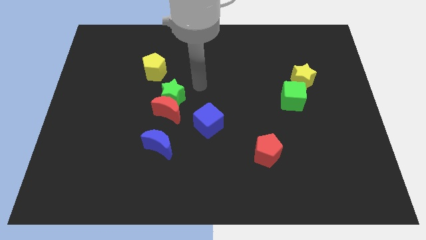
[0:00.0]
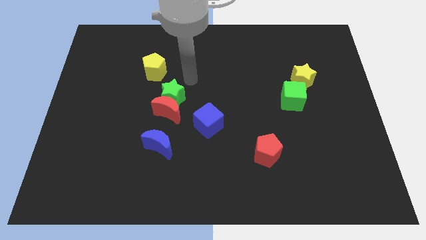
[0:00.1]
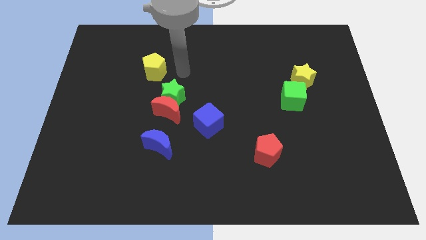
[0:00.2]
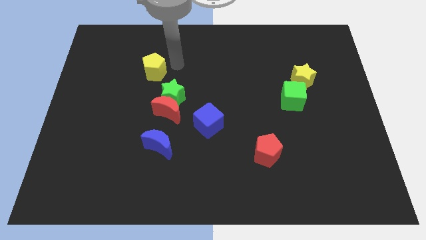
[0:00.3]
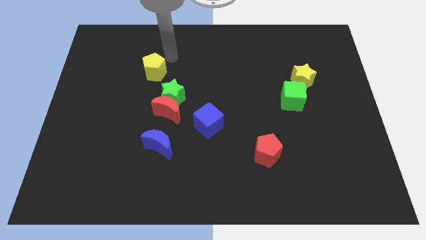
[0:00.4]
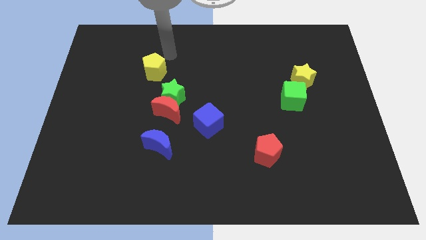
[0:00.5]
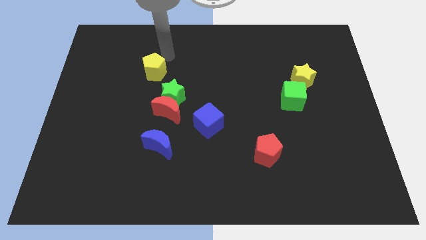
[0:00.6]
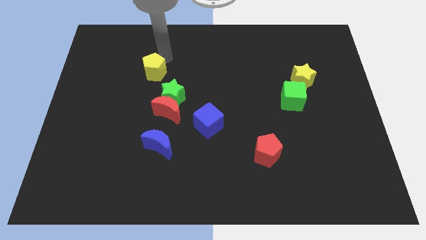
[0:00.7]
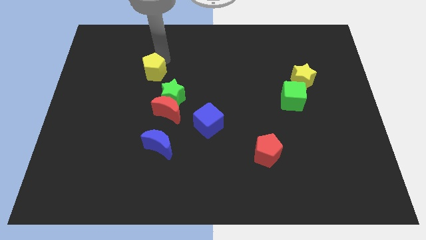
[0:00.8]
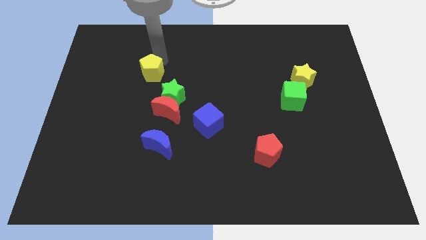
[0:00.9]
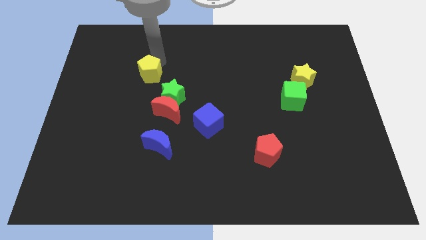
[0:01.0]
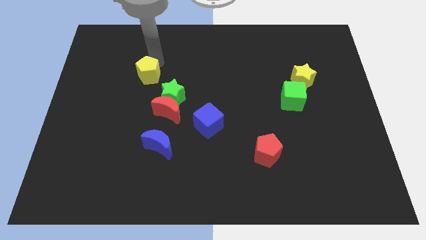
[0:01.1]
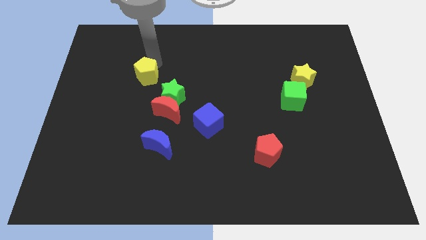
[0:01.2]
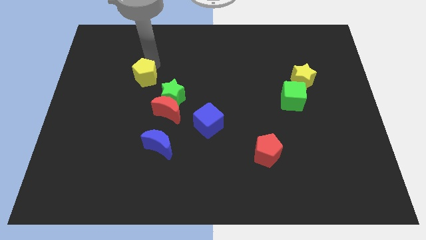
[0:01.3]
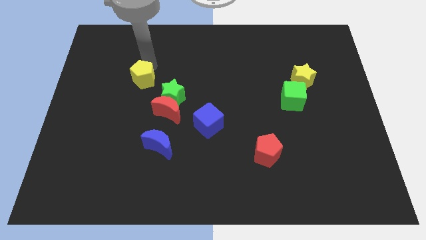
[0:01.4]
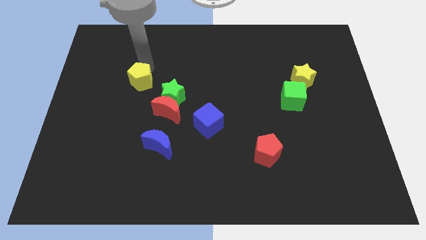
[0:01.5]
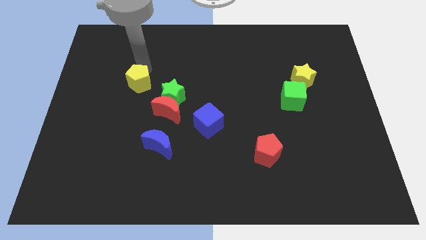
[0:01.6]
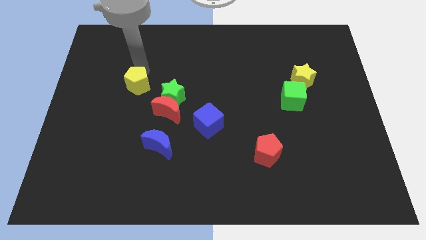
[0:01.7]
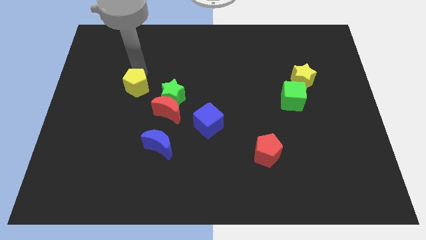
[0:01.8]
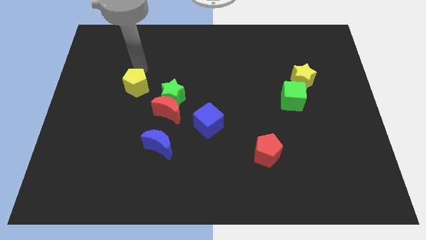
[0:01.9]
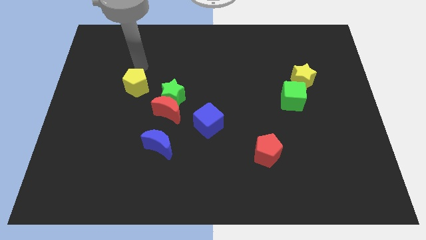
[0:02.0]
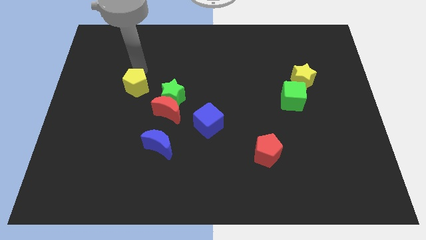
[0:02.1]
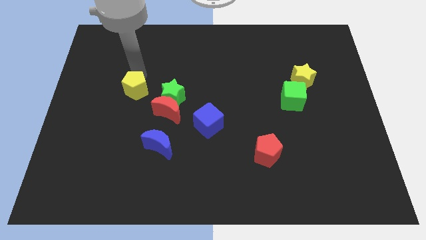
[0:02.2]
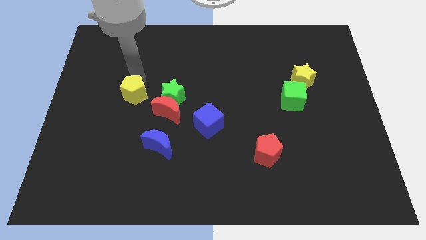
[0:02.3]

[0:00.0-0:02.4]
move the yellow pentagon somewhat down

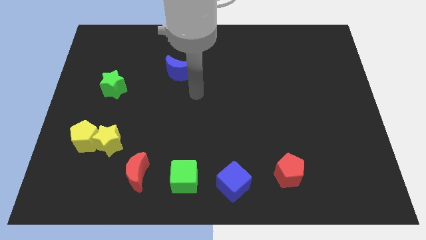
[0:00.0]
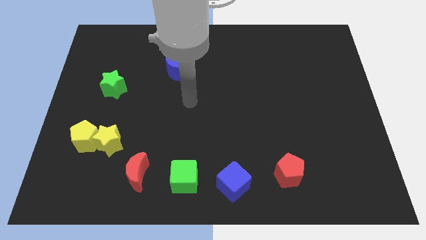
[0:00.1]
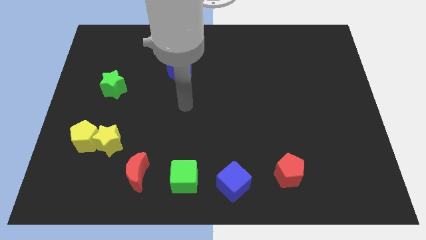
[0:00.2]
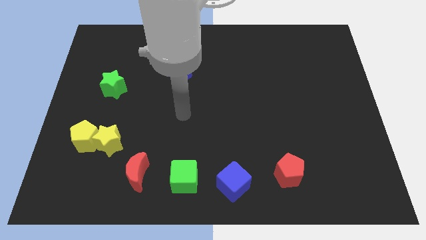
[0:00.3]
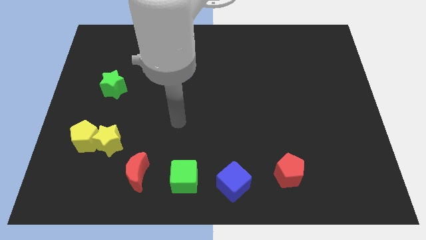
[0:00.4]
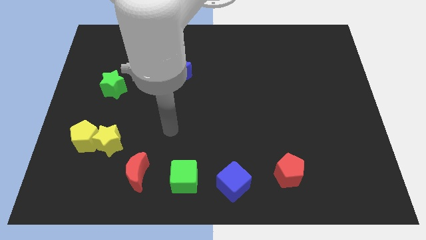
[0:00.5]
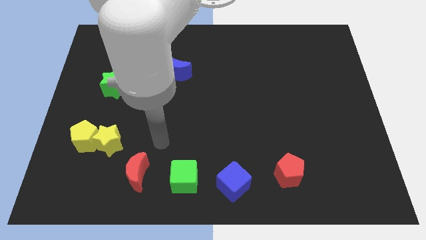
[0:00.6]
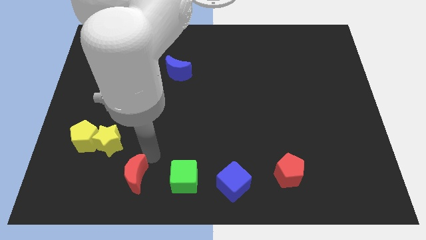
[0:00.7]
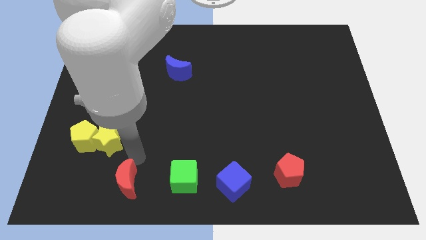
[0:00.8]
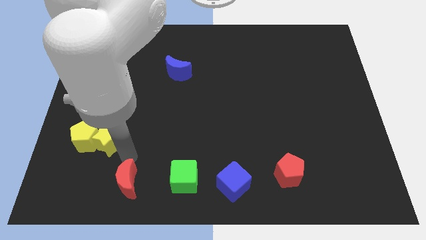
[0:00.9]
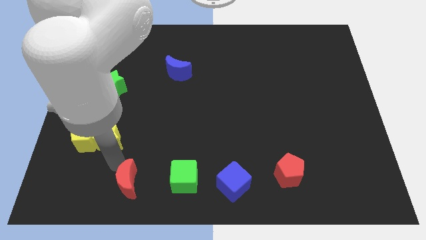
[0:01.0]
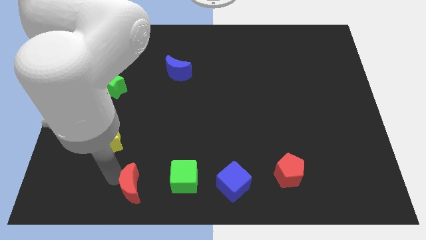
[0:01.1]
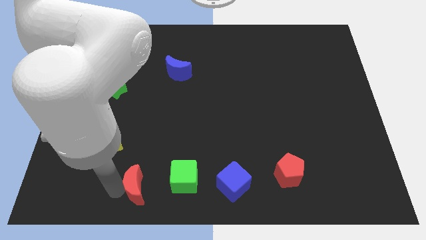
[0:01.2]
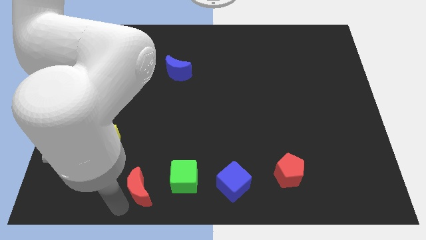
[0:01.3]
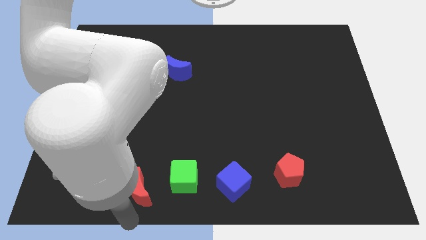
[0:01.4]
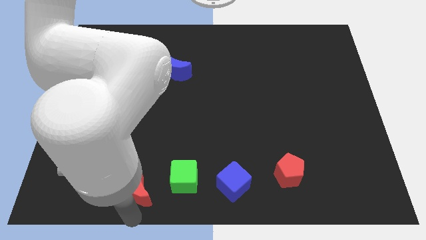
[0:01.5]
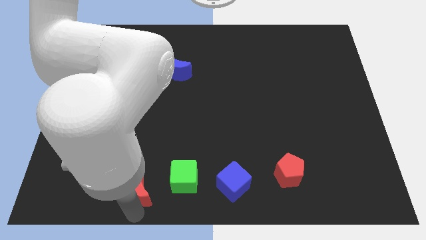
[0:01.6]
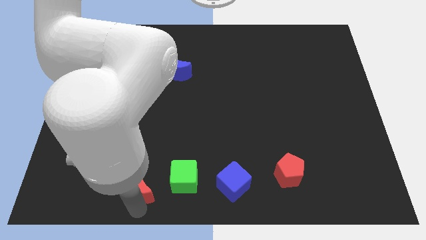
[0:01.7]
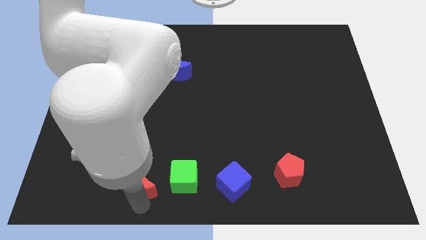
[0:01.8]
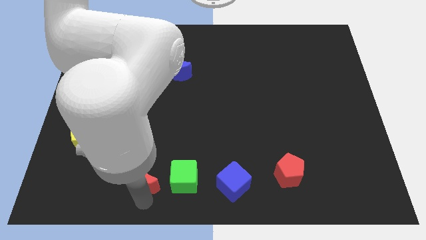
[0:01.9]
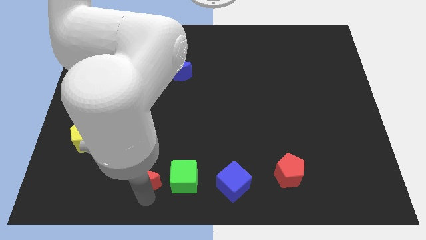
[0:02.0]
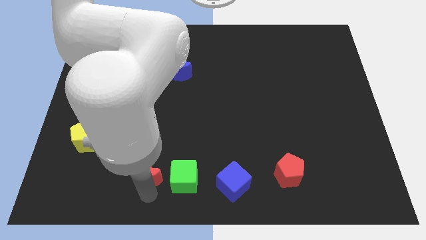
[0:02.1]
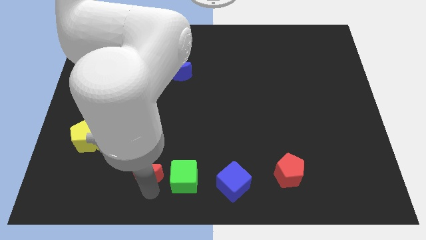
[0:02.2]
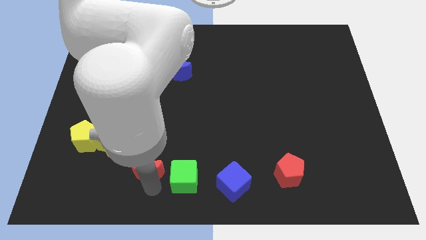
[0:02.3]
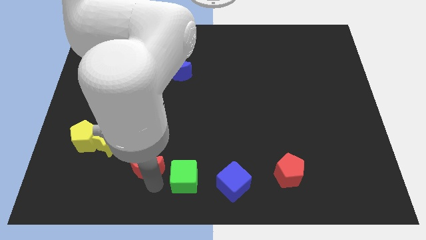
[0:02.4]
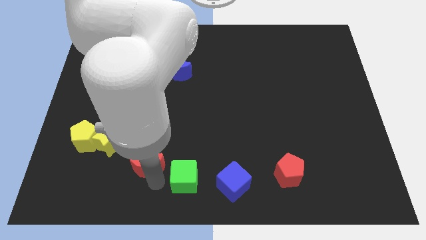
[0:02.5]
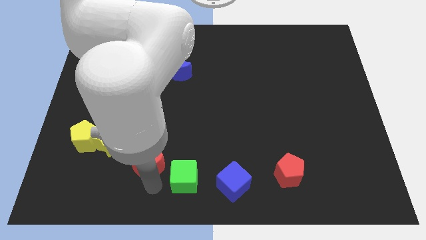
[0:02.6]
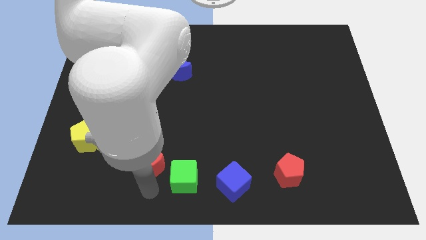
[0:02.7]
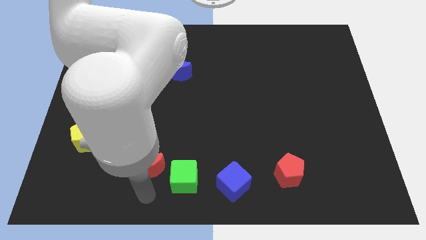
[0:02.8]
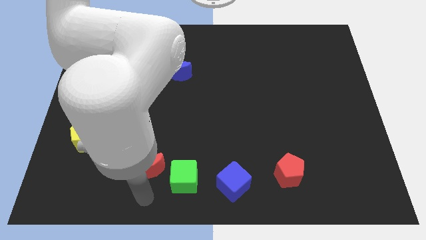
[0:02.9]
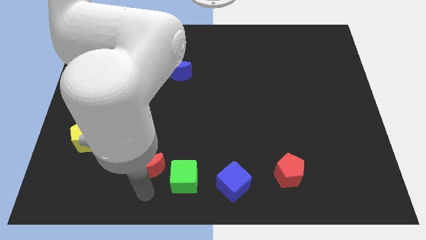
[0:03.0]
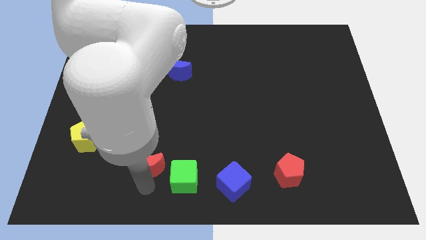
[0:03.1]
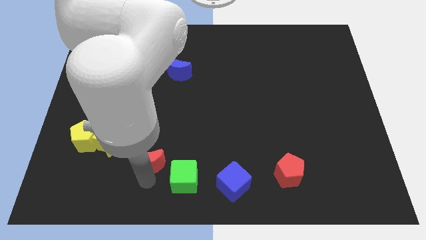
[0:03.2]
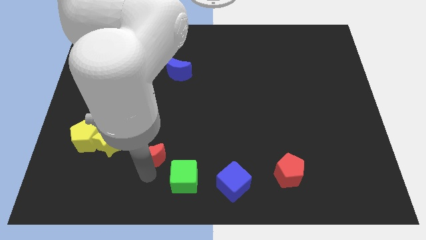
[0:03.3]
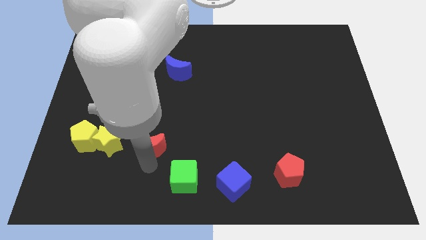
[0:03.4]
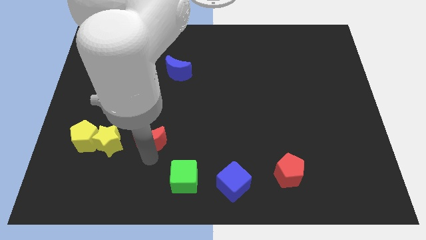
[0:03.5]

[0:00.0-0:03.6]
move the red moon upwards slightly

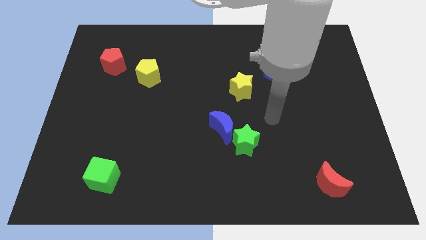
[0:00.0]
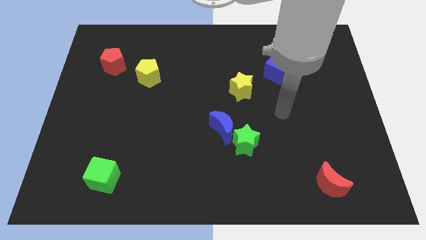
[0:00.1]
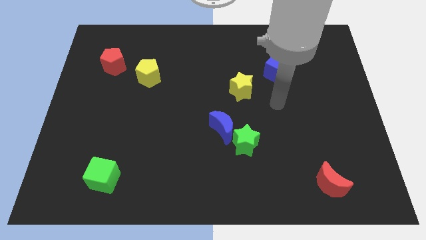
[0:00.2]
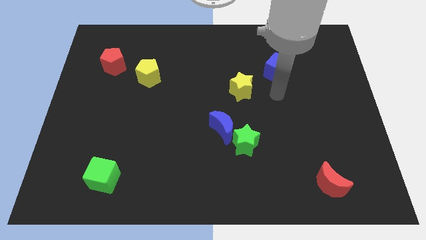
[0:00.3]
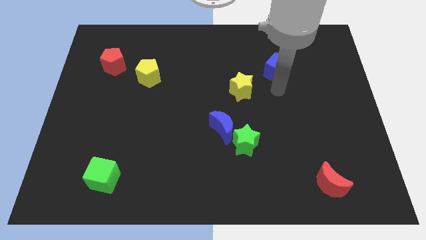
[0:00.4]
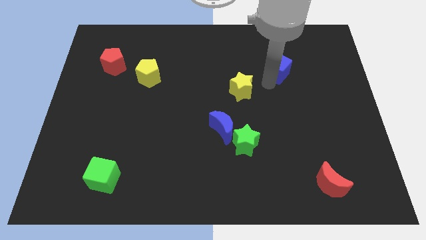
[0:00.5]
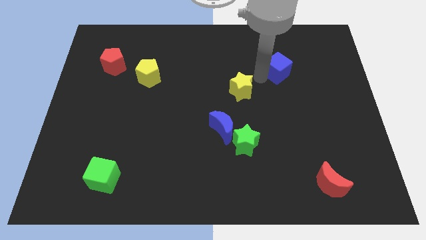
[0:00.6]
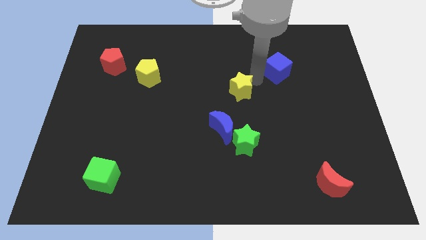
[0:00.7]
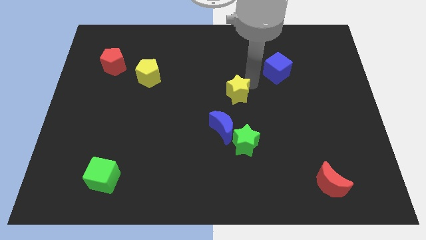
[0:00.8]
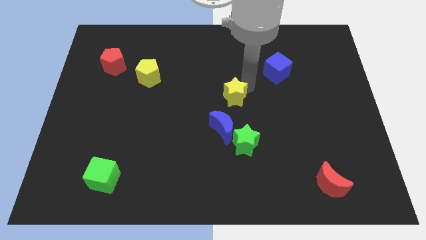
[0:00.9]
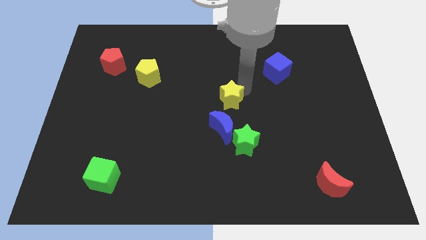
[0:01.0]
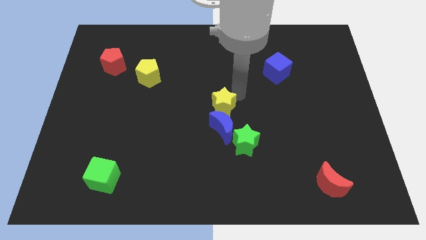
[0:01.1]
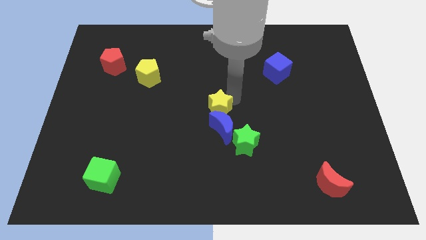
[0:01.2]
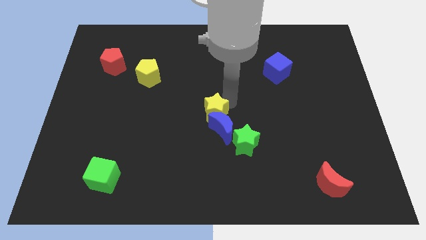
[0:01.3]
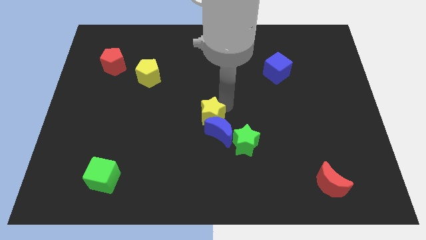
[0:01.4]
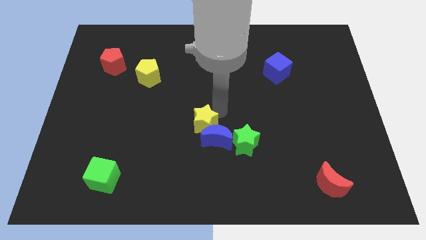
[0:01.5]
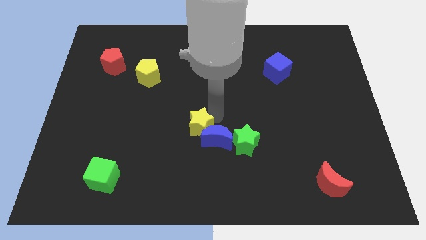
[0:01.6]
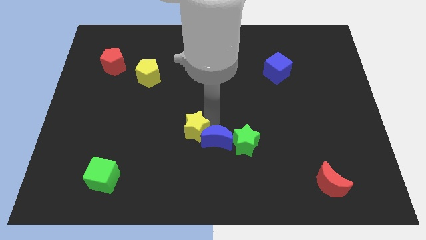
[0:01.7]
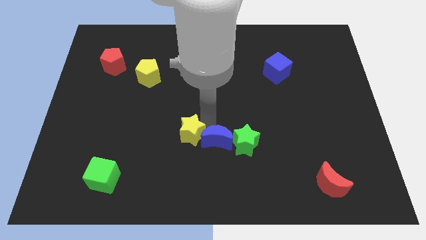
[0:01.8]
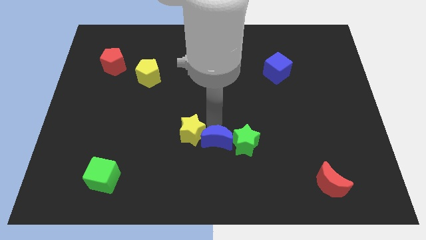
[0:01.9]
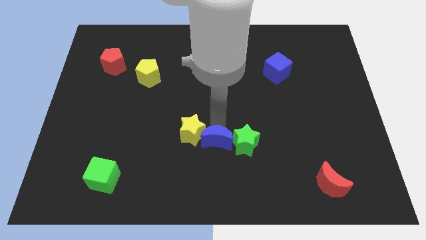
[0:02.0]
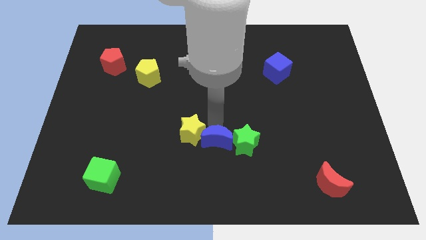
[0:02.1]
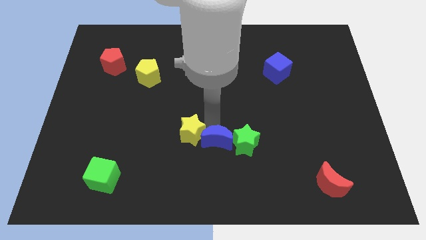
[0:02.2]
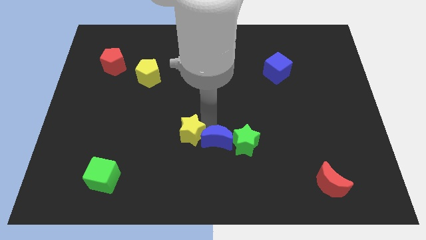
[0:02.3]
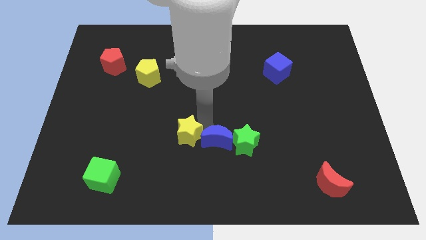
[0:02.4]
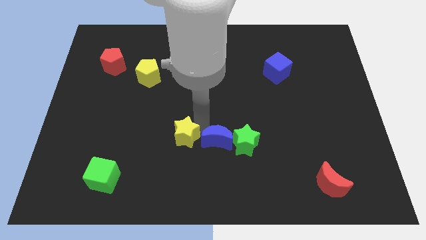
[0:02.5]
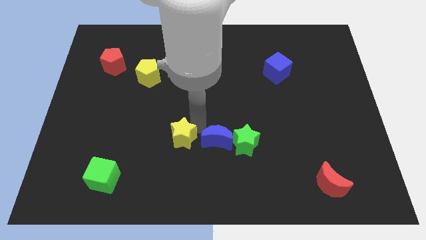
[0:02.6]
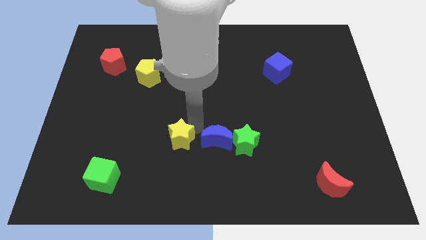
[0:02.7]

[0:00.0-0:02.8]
move the yellow star down and left diagonally
